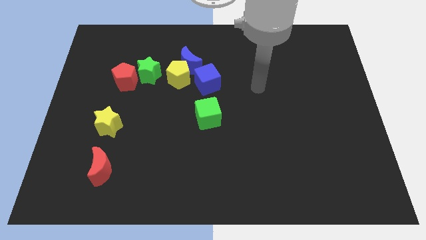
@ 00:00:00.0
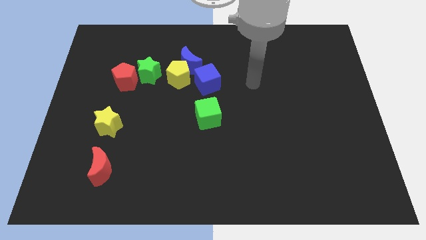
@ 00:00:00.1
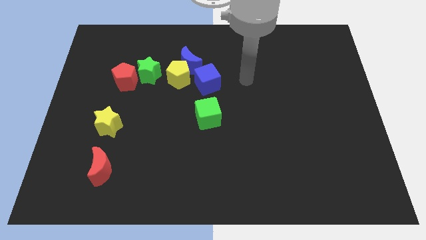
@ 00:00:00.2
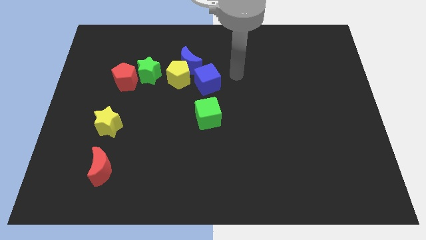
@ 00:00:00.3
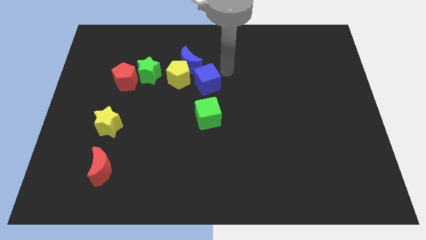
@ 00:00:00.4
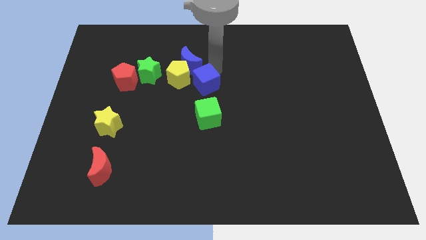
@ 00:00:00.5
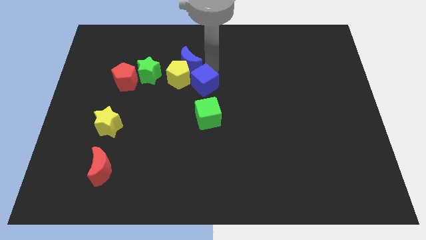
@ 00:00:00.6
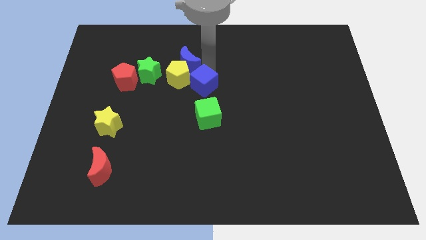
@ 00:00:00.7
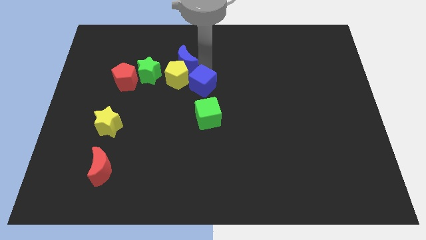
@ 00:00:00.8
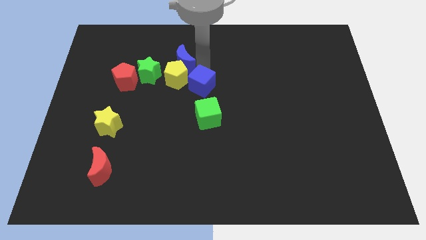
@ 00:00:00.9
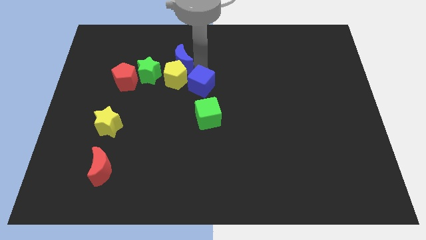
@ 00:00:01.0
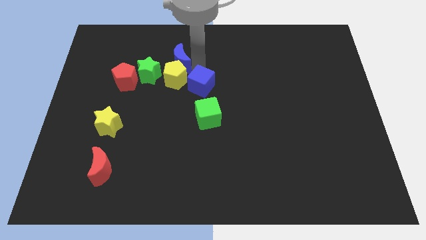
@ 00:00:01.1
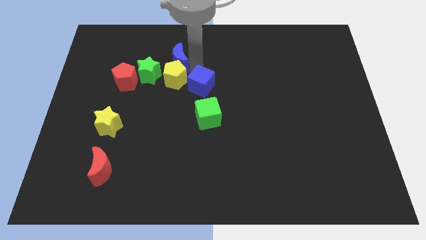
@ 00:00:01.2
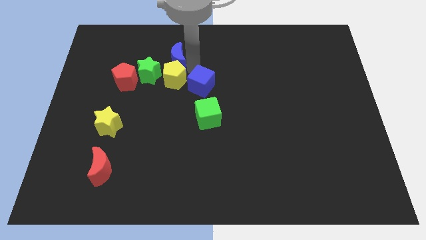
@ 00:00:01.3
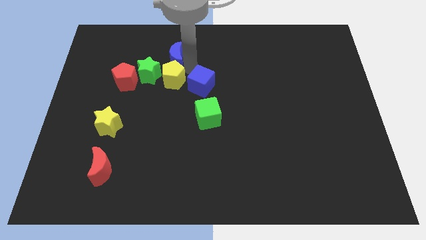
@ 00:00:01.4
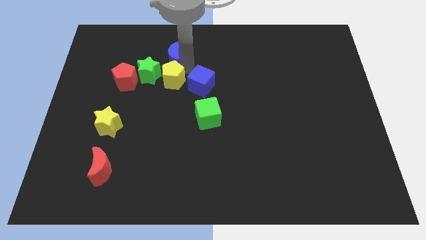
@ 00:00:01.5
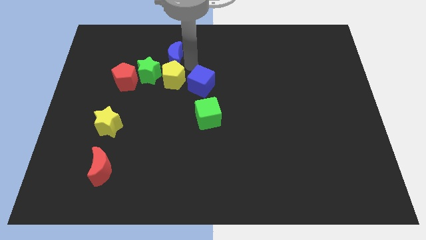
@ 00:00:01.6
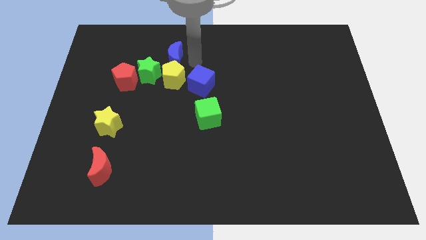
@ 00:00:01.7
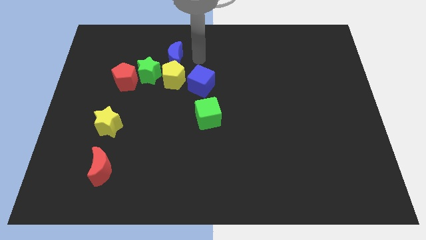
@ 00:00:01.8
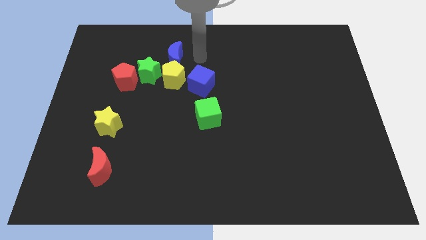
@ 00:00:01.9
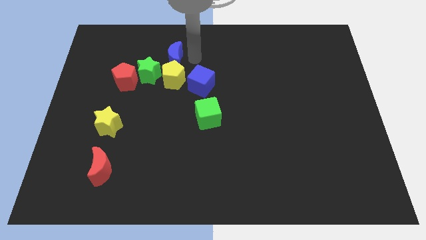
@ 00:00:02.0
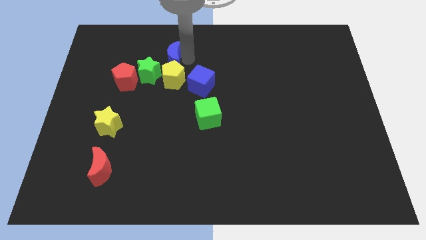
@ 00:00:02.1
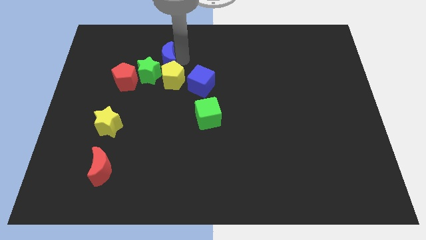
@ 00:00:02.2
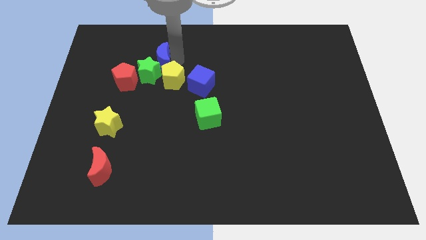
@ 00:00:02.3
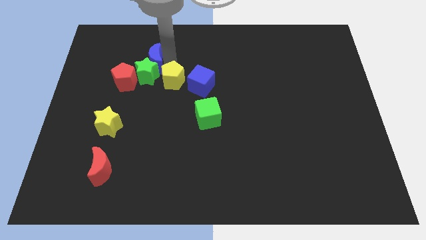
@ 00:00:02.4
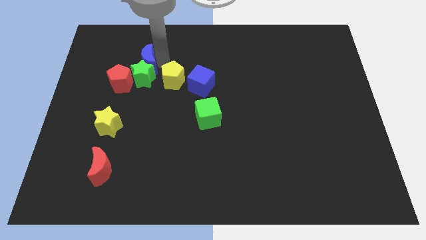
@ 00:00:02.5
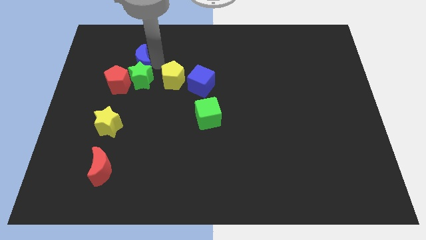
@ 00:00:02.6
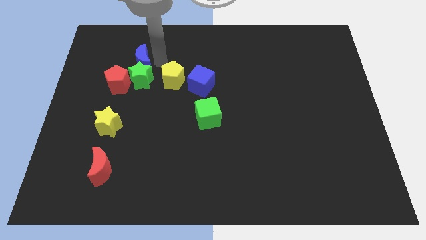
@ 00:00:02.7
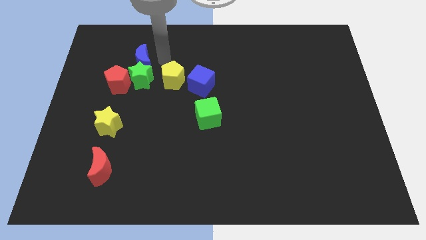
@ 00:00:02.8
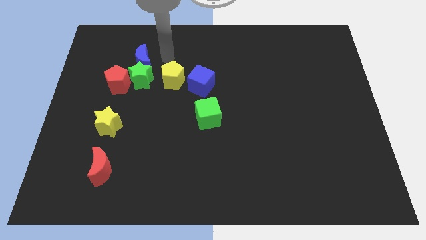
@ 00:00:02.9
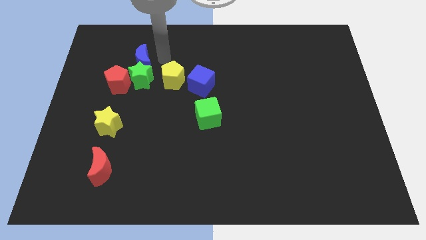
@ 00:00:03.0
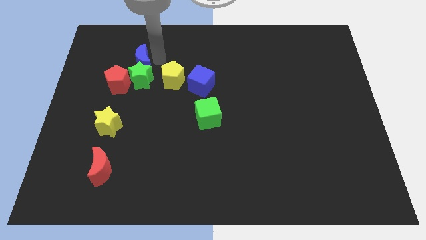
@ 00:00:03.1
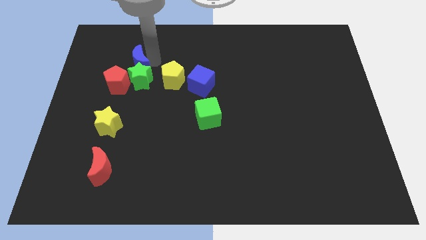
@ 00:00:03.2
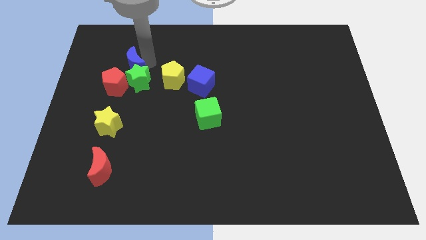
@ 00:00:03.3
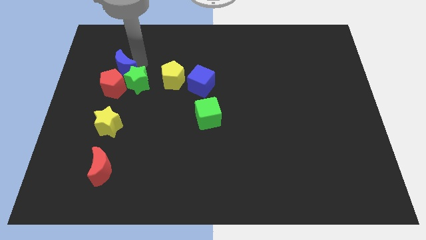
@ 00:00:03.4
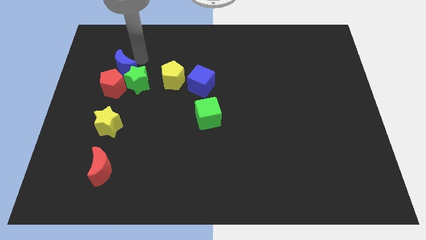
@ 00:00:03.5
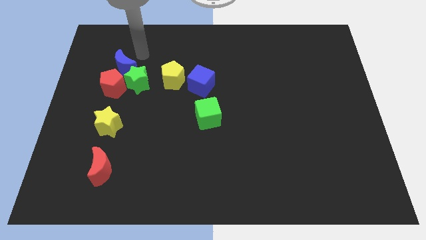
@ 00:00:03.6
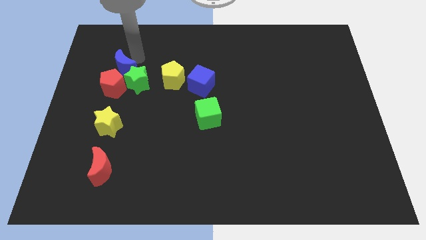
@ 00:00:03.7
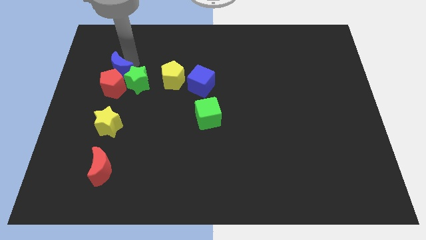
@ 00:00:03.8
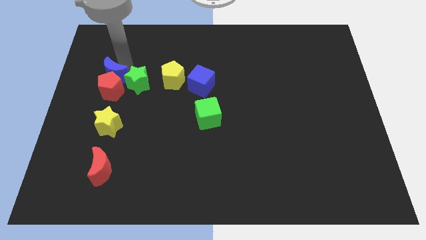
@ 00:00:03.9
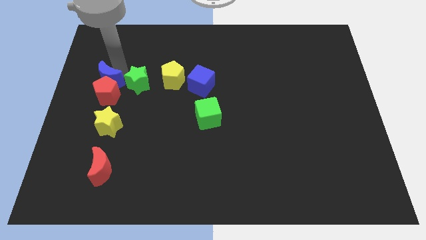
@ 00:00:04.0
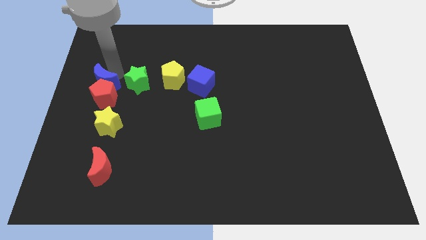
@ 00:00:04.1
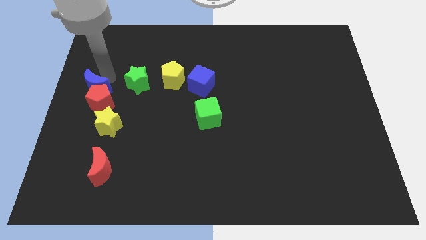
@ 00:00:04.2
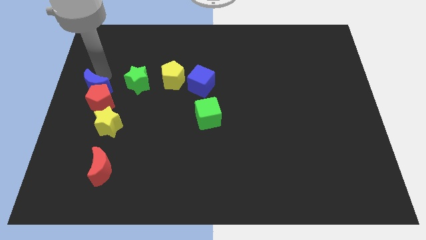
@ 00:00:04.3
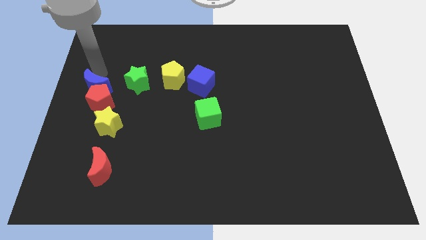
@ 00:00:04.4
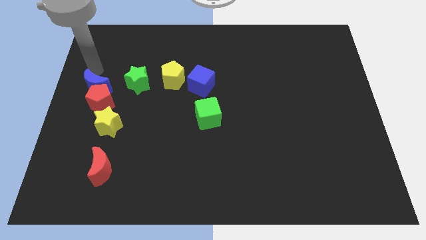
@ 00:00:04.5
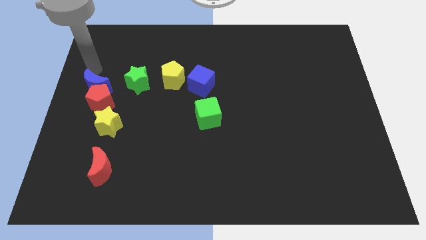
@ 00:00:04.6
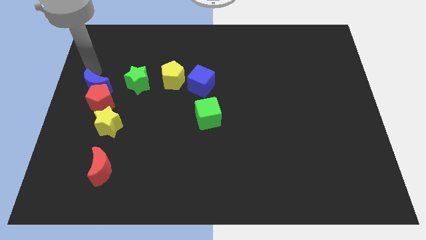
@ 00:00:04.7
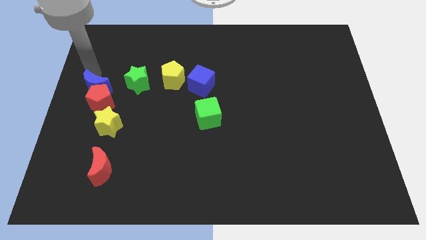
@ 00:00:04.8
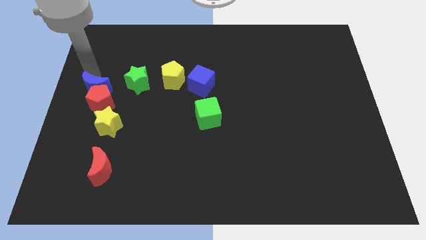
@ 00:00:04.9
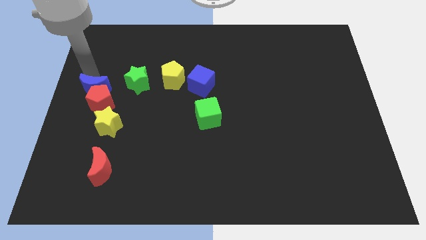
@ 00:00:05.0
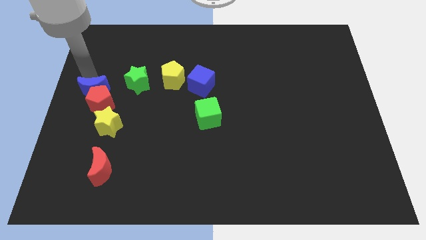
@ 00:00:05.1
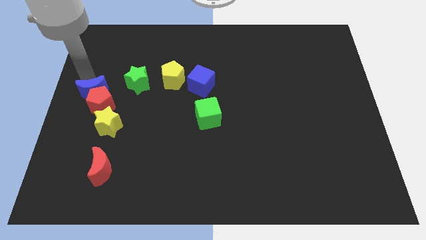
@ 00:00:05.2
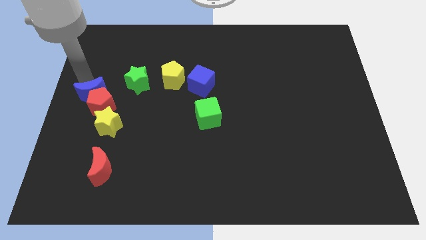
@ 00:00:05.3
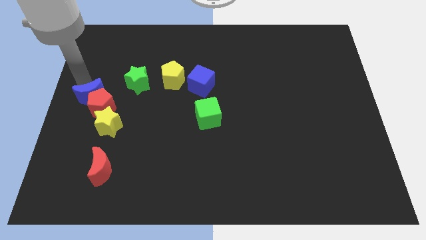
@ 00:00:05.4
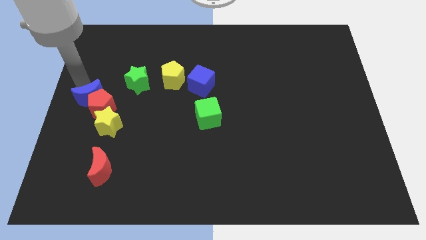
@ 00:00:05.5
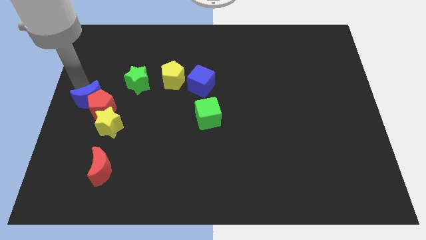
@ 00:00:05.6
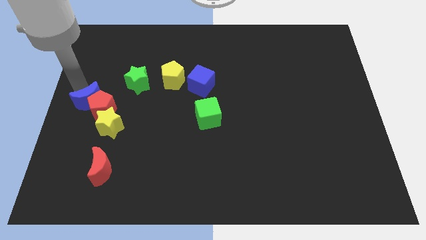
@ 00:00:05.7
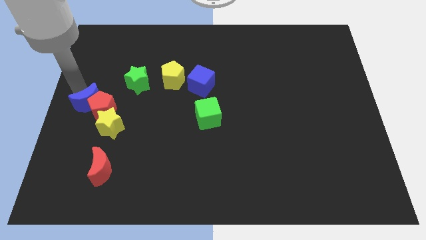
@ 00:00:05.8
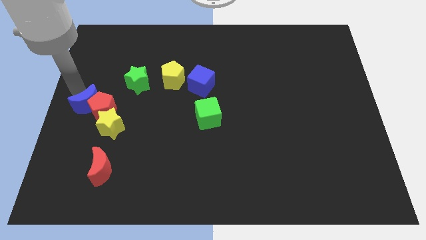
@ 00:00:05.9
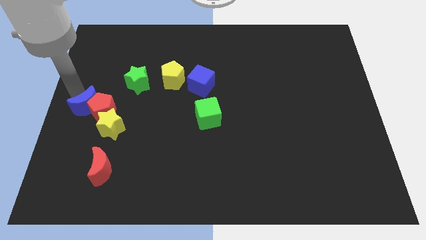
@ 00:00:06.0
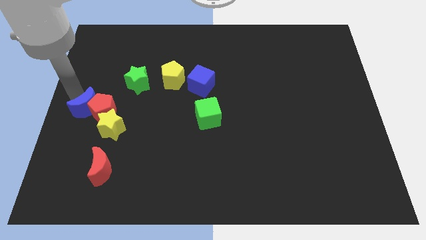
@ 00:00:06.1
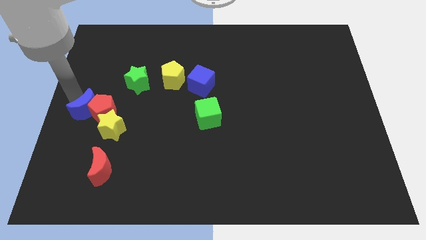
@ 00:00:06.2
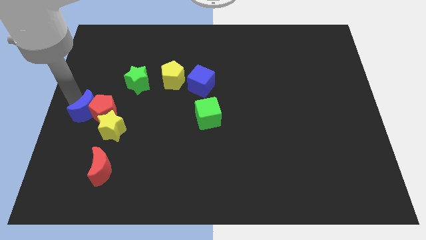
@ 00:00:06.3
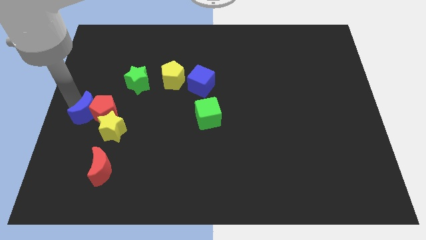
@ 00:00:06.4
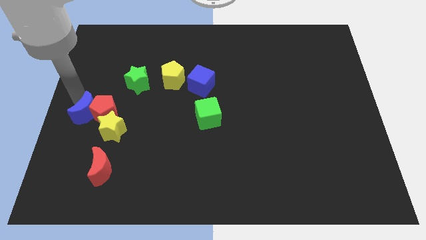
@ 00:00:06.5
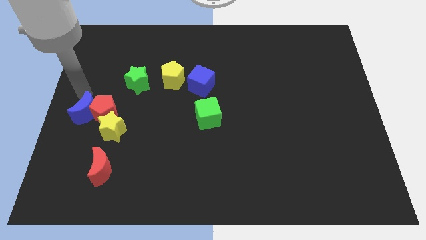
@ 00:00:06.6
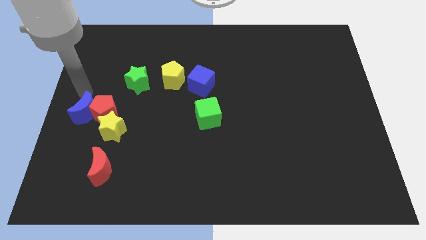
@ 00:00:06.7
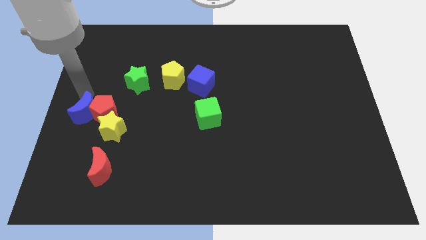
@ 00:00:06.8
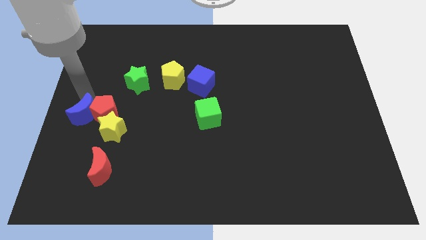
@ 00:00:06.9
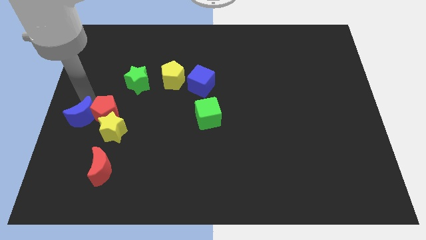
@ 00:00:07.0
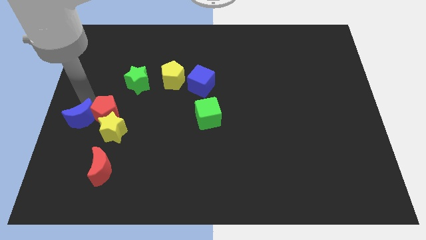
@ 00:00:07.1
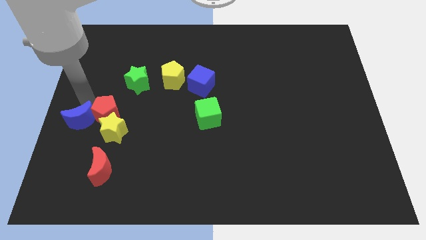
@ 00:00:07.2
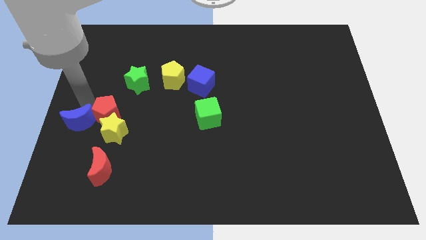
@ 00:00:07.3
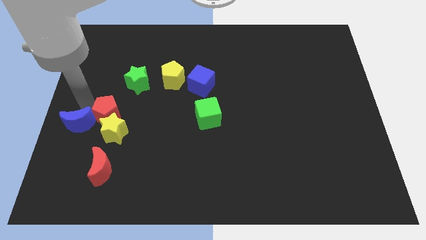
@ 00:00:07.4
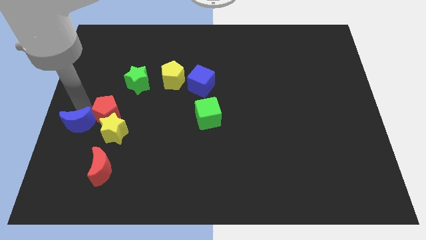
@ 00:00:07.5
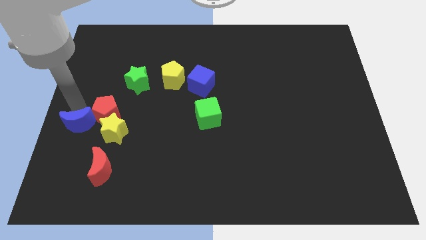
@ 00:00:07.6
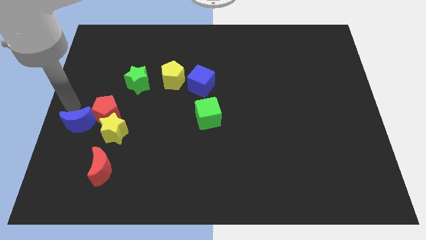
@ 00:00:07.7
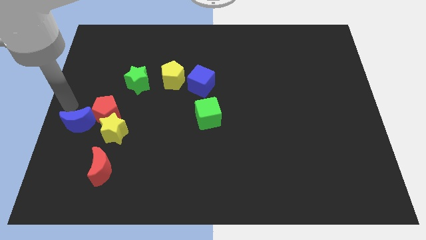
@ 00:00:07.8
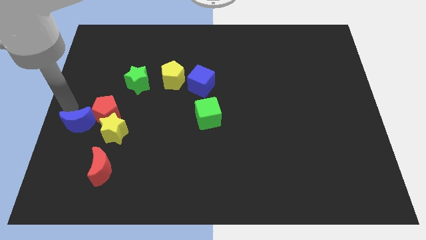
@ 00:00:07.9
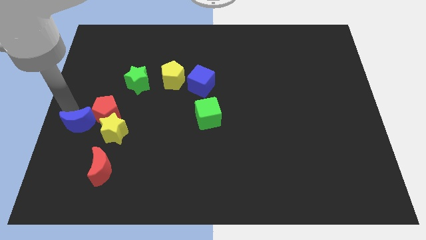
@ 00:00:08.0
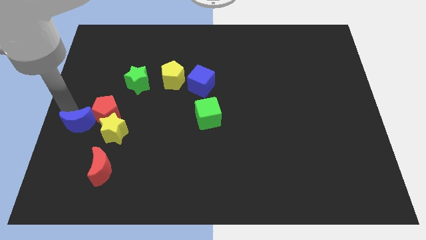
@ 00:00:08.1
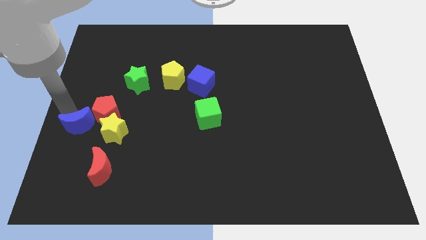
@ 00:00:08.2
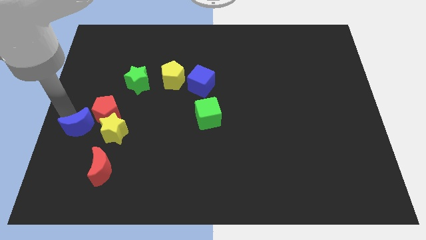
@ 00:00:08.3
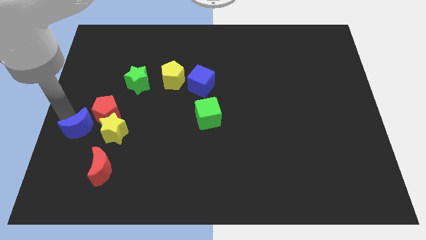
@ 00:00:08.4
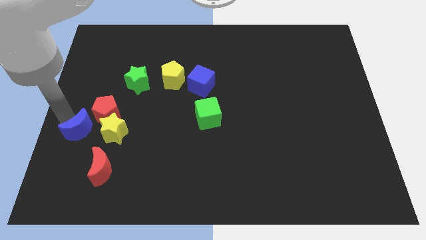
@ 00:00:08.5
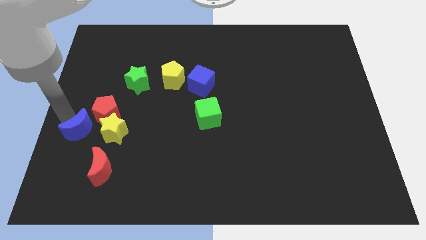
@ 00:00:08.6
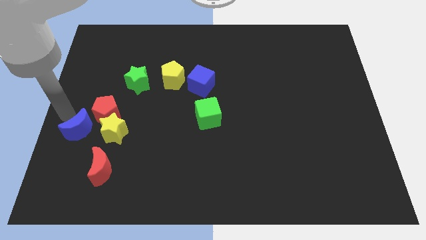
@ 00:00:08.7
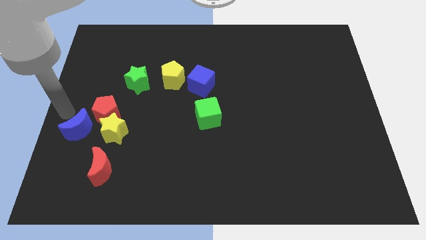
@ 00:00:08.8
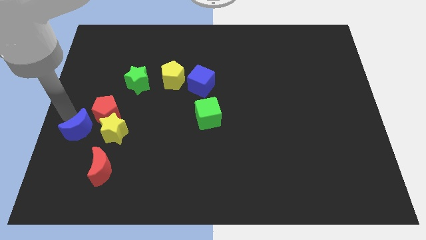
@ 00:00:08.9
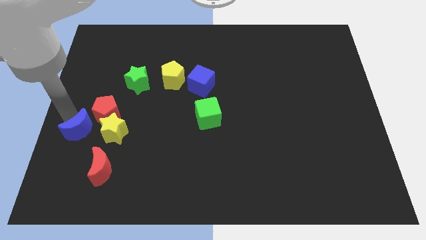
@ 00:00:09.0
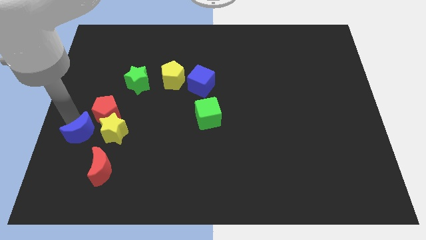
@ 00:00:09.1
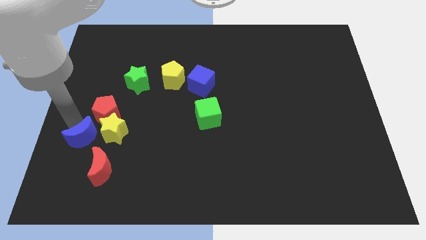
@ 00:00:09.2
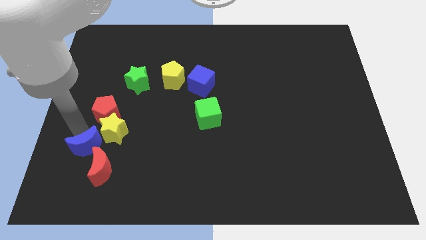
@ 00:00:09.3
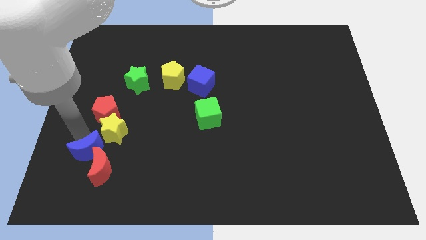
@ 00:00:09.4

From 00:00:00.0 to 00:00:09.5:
move the blue moon next to the red moon
